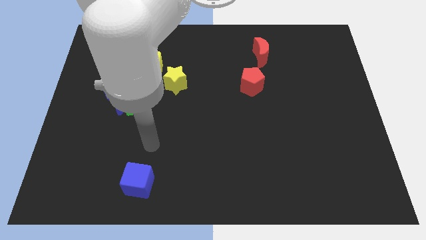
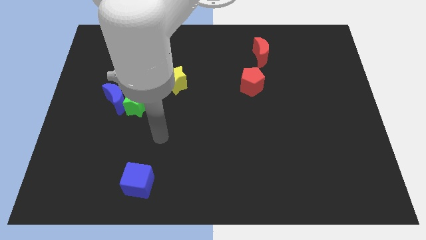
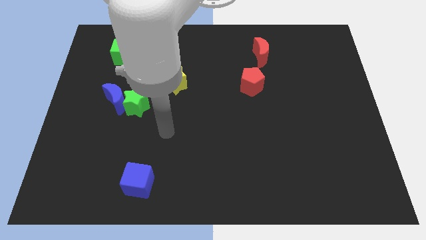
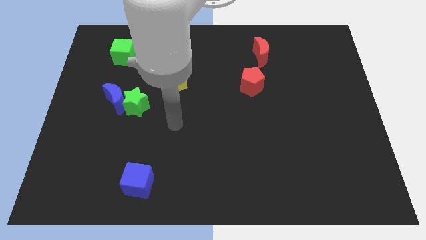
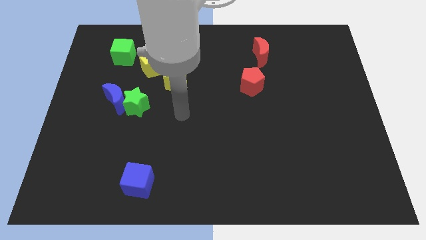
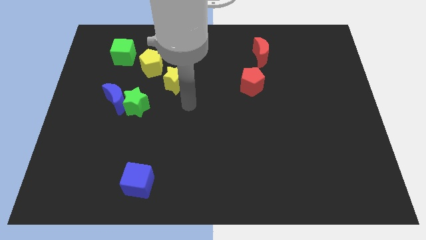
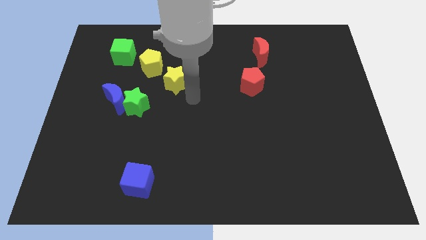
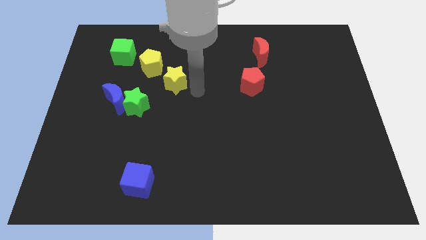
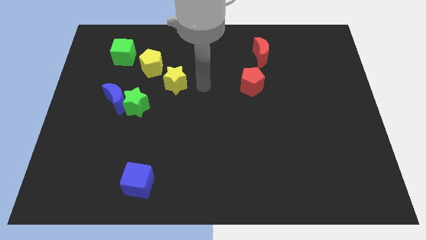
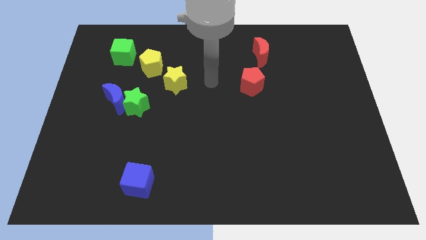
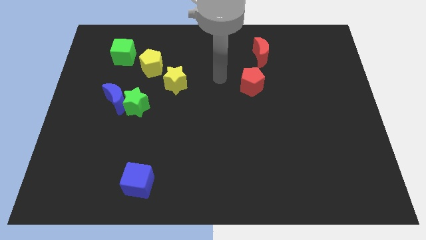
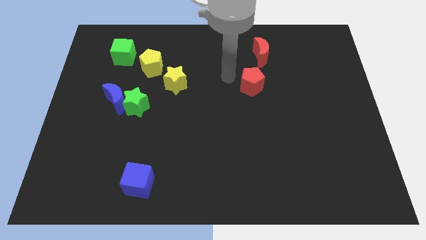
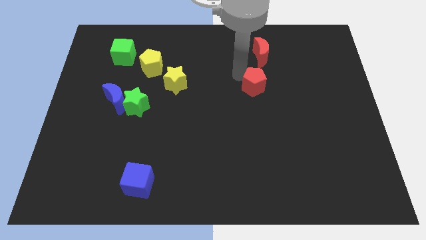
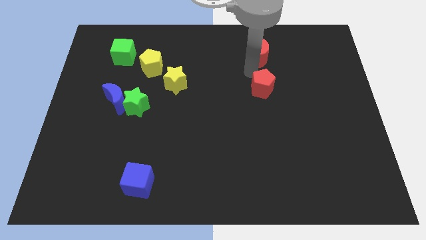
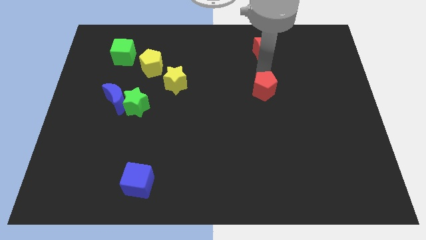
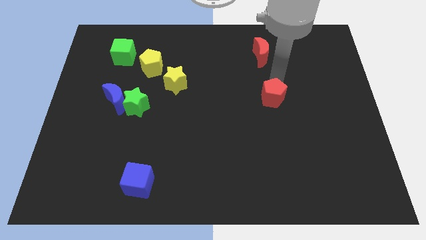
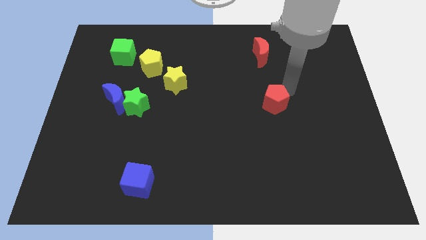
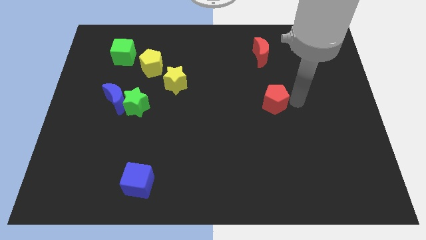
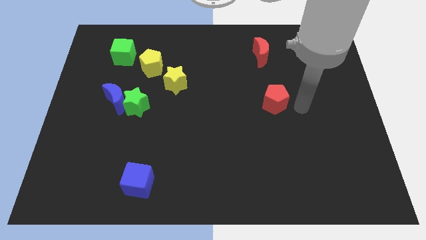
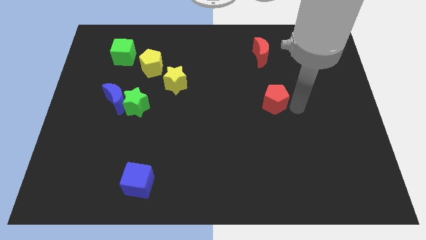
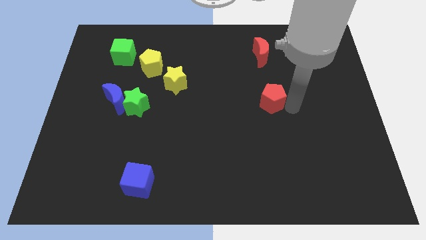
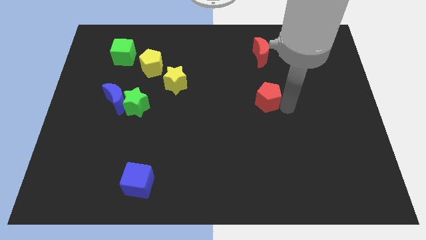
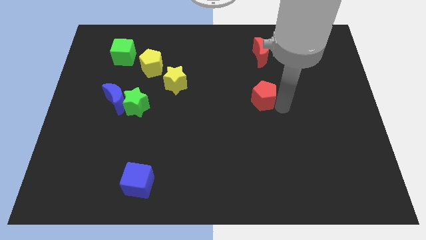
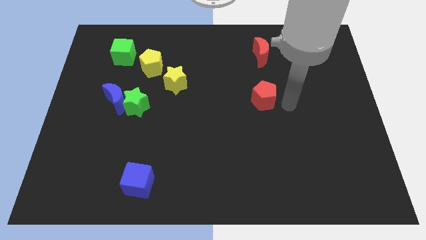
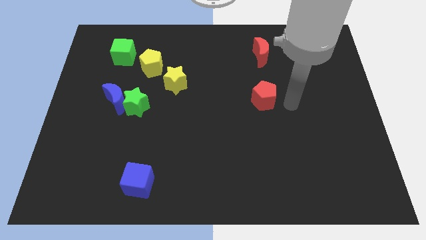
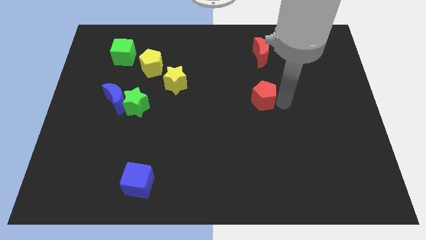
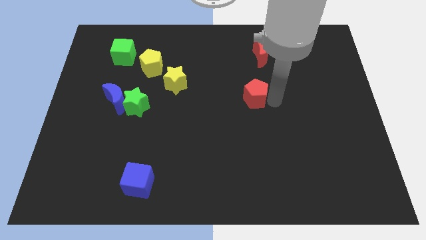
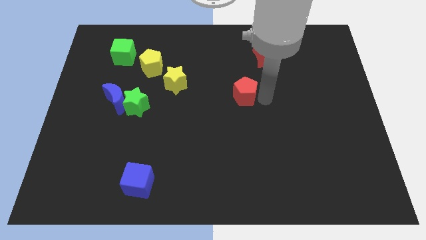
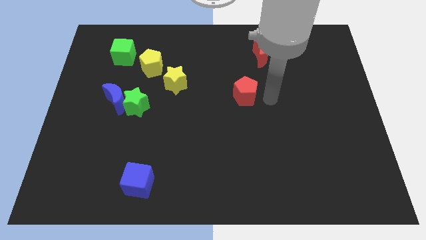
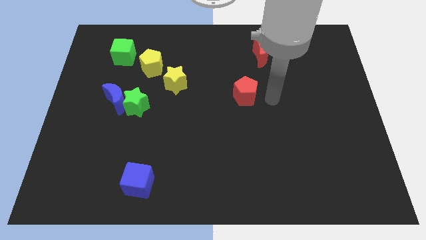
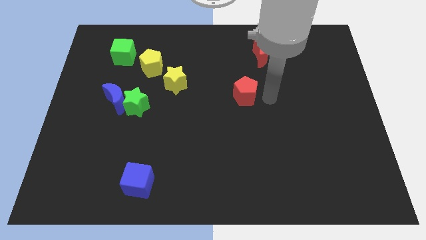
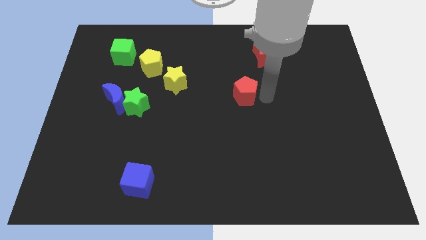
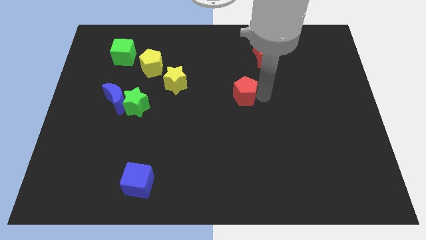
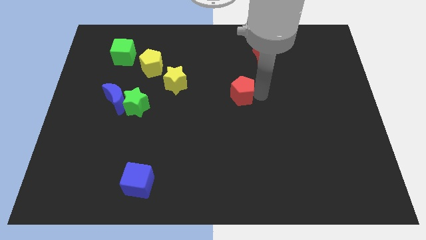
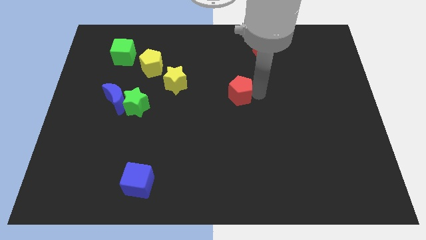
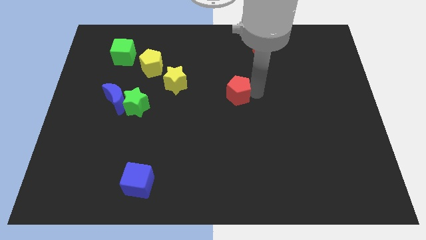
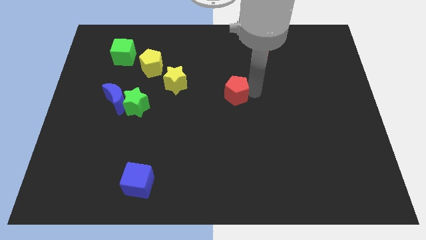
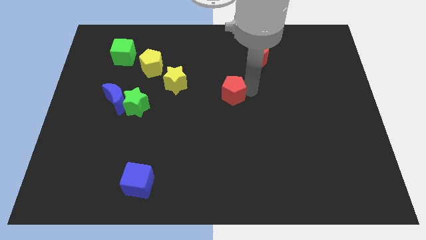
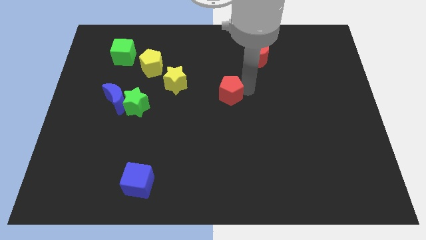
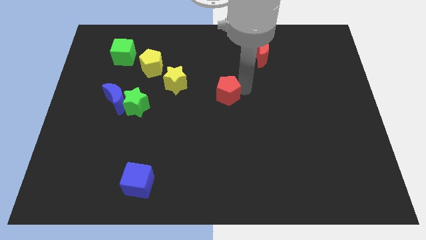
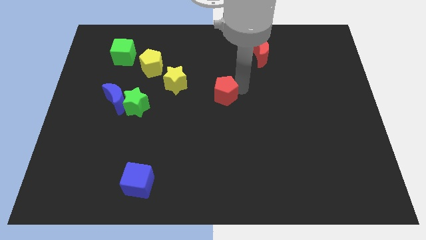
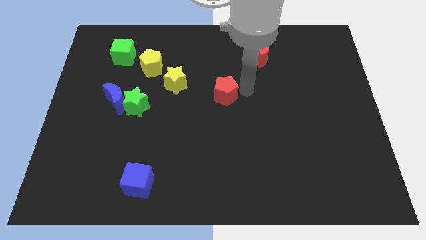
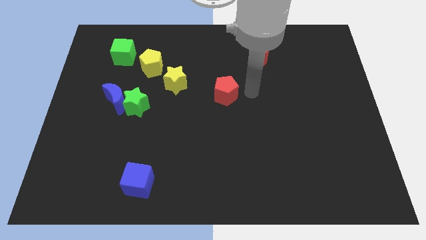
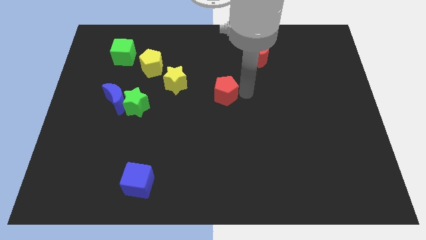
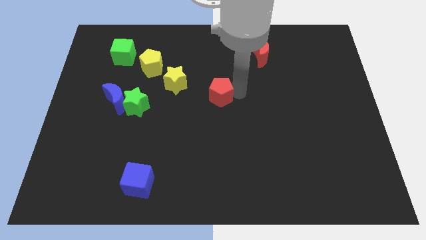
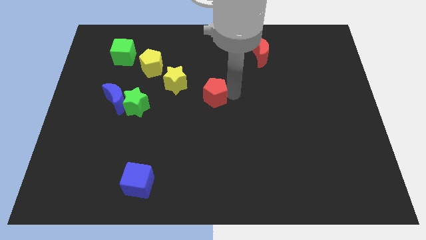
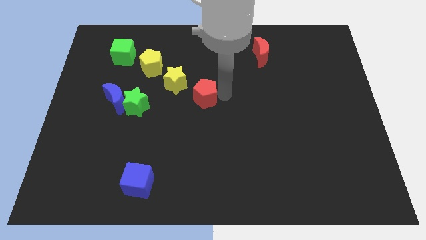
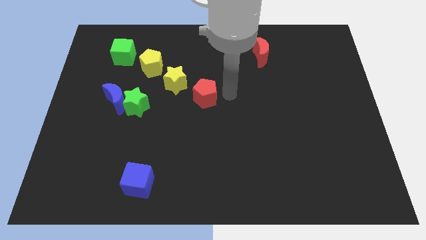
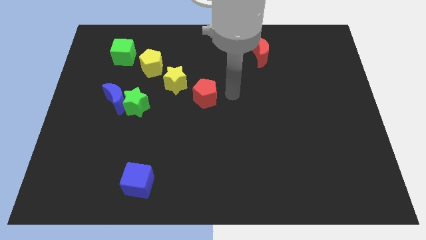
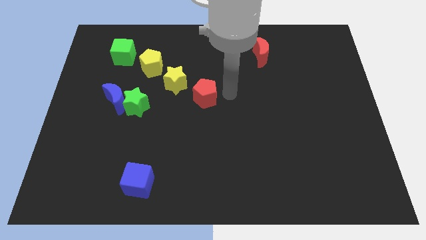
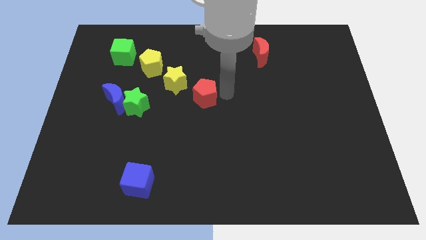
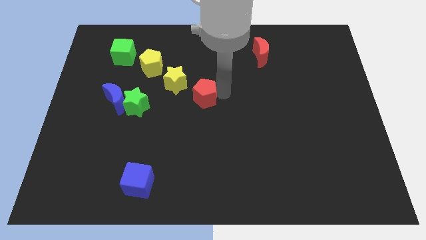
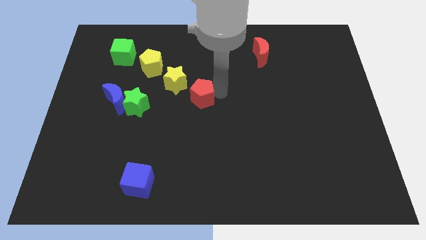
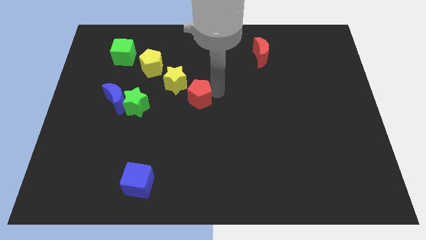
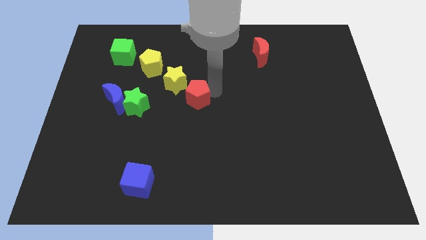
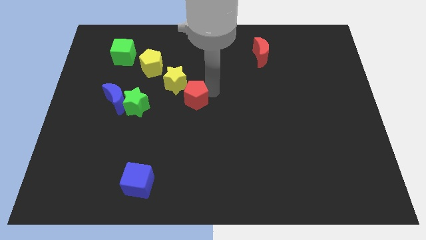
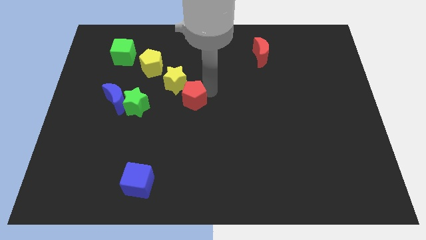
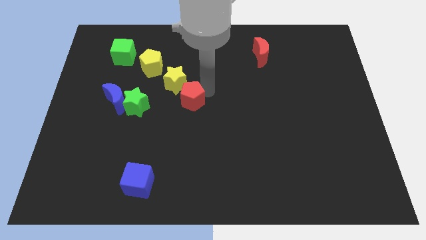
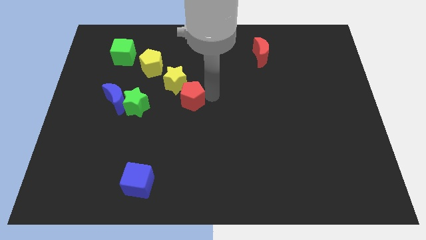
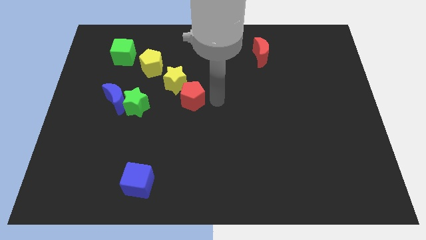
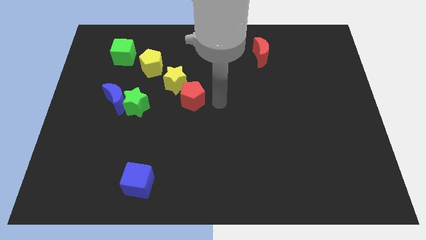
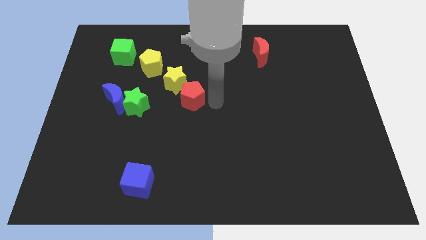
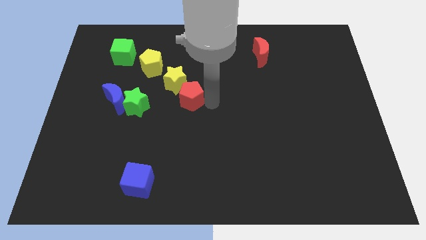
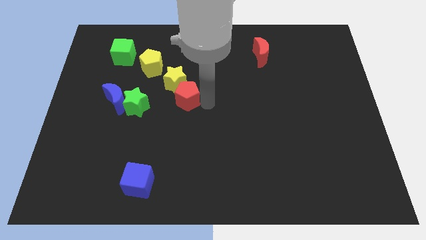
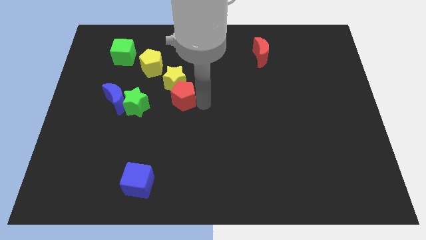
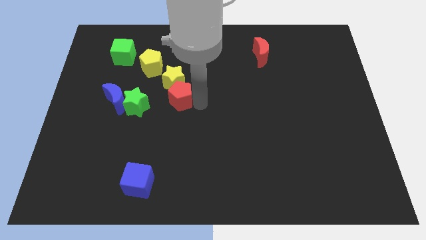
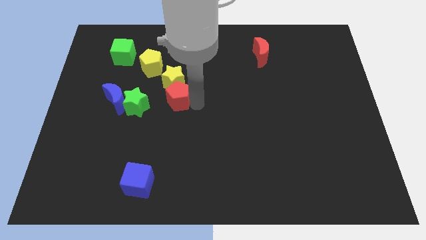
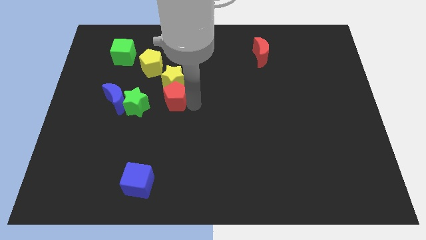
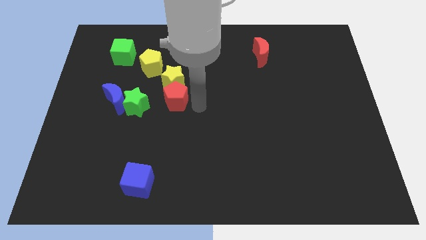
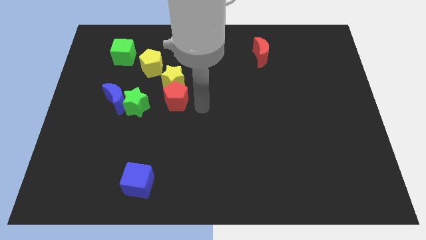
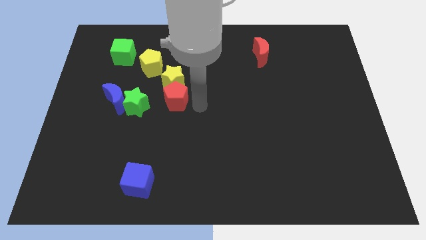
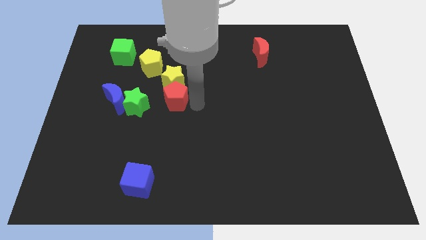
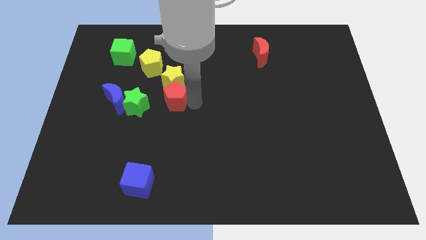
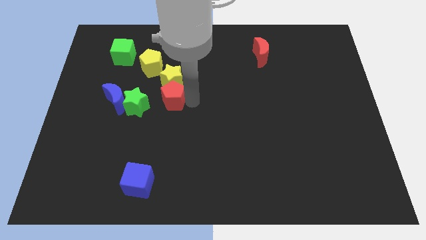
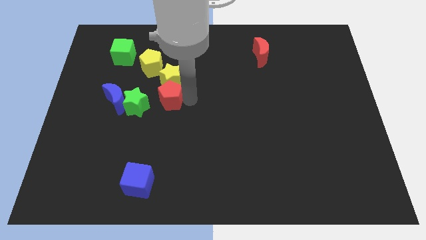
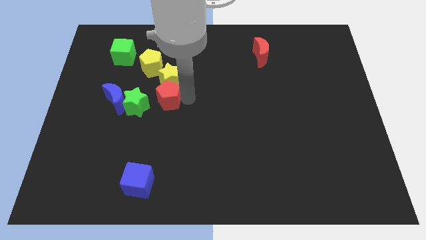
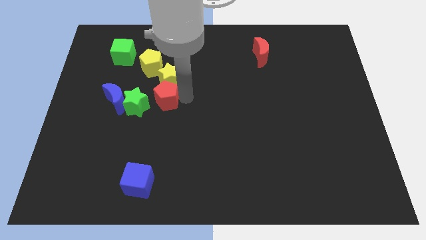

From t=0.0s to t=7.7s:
slide the red pentagon left

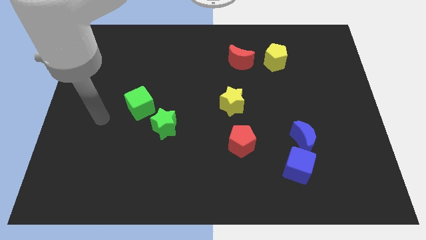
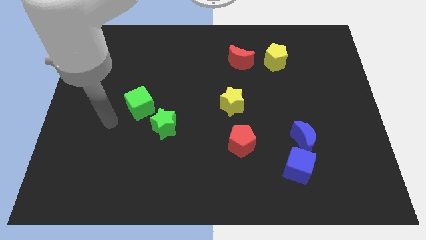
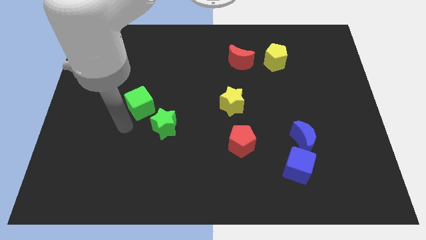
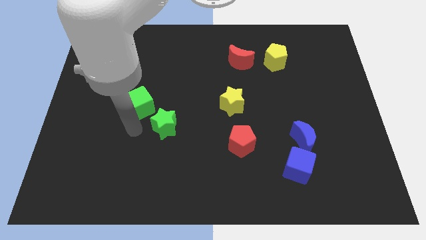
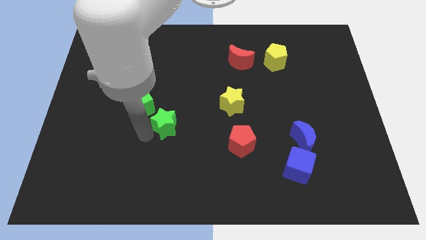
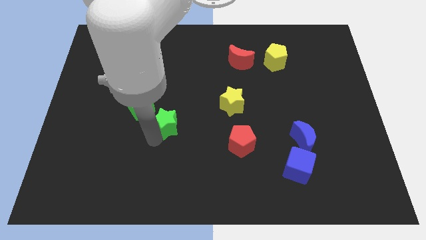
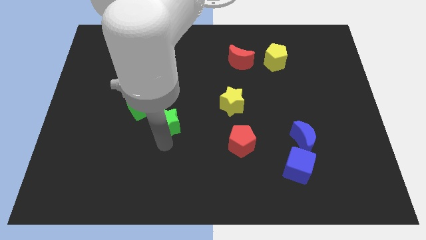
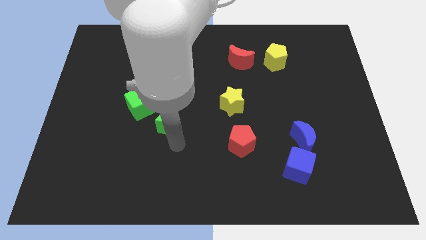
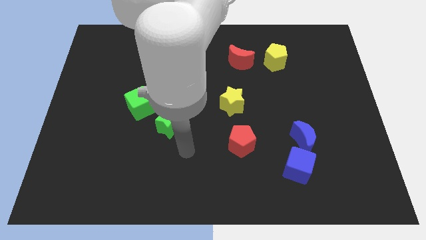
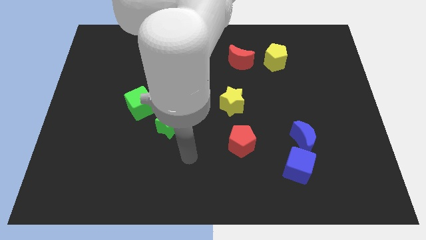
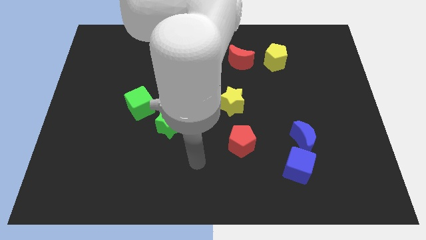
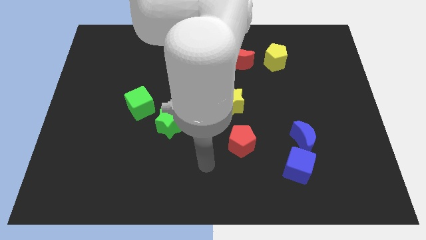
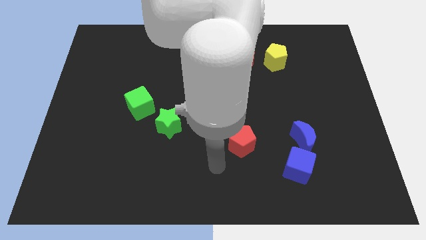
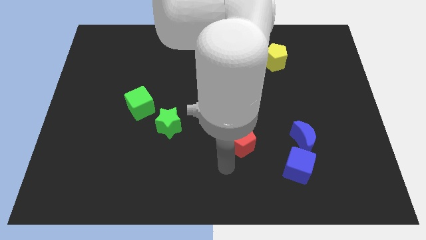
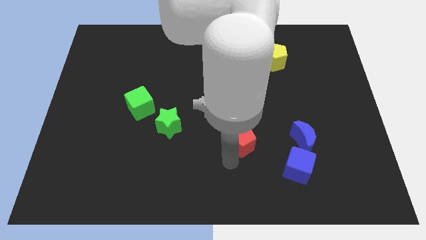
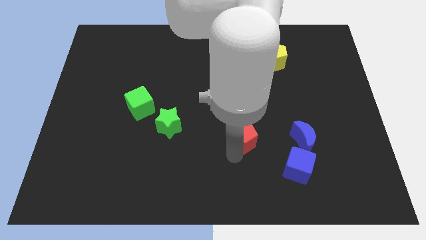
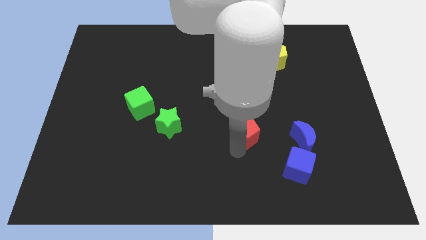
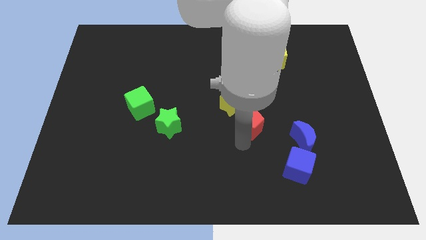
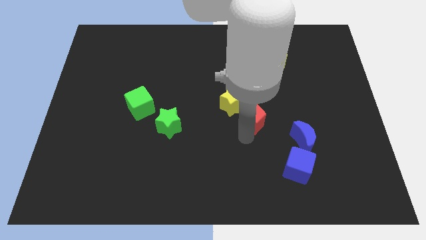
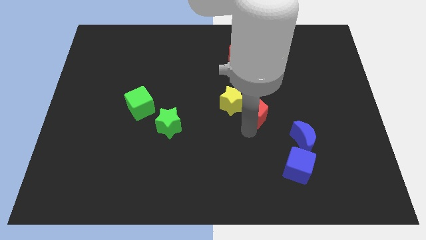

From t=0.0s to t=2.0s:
move the red pentagon up a little
